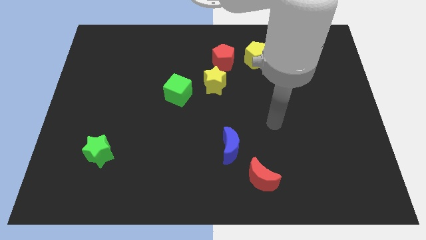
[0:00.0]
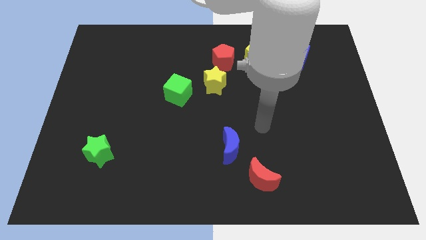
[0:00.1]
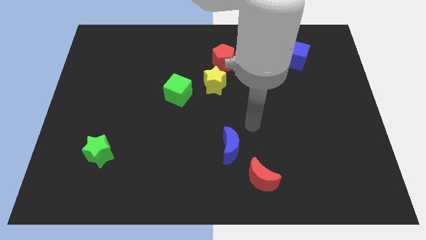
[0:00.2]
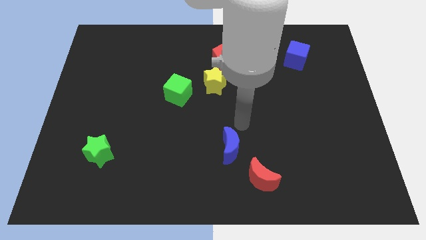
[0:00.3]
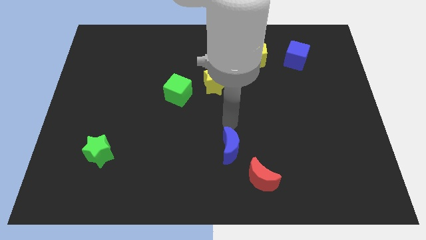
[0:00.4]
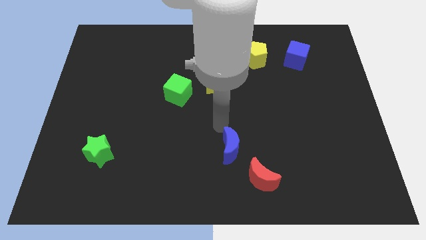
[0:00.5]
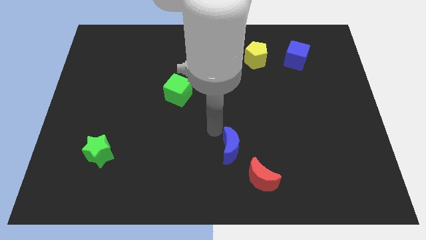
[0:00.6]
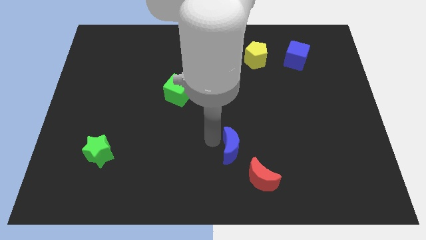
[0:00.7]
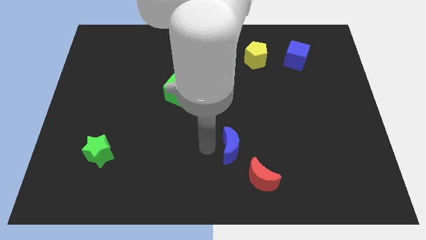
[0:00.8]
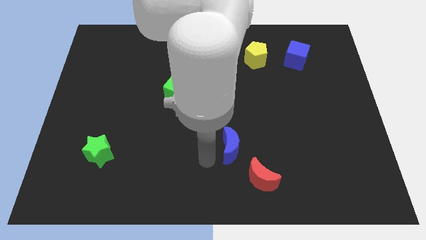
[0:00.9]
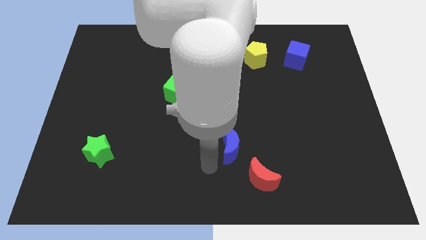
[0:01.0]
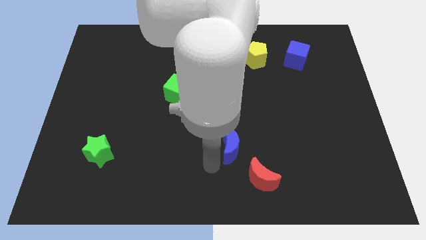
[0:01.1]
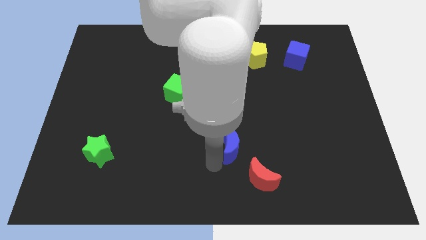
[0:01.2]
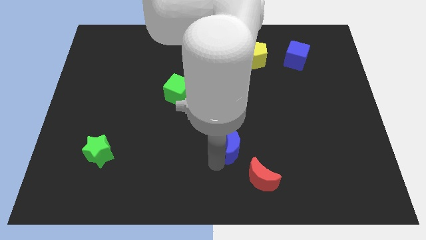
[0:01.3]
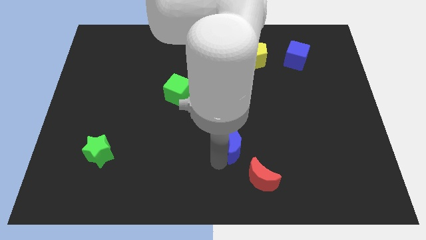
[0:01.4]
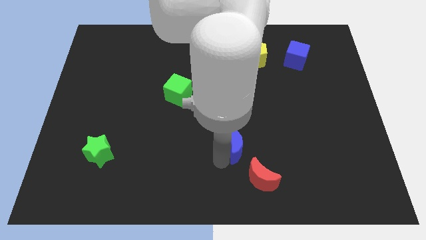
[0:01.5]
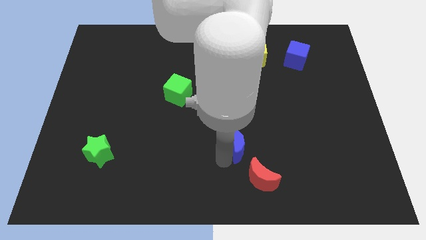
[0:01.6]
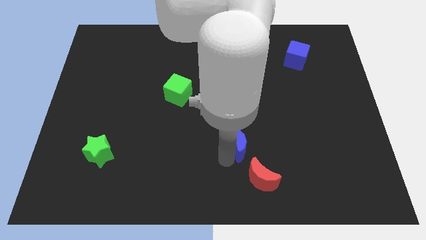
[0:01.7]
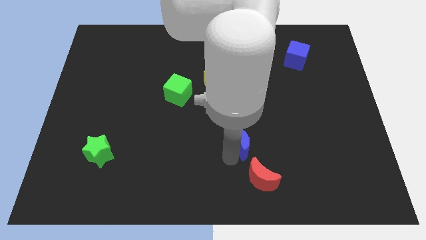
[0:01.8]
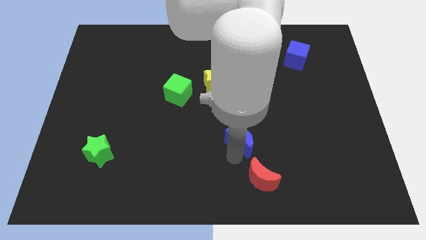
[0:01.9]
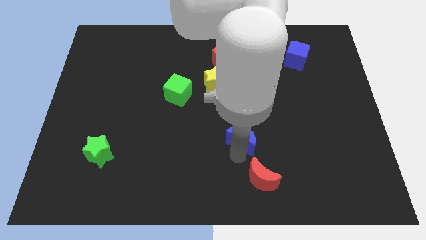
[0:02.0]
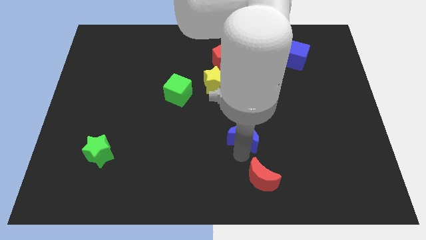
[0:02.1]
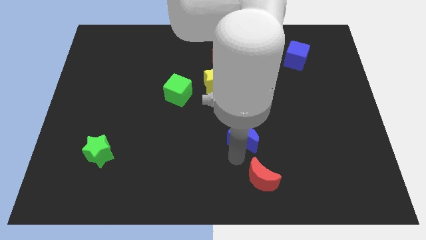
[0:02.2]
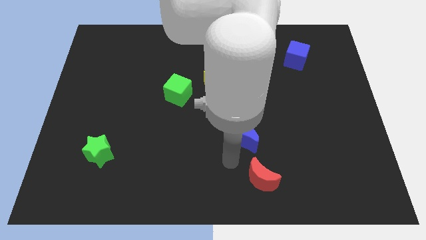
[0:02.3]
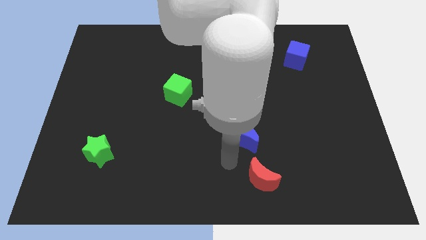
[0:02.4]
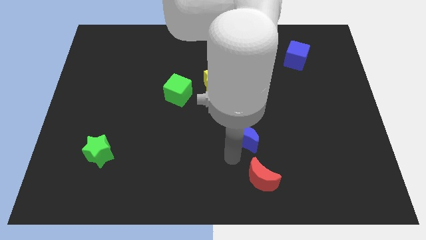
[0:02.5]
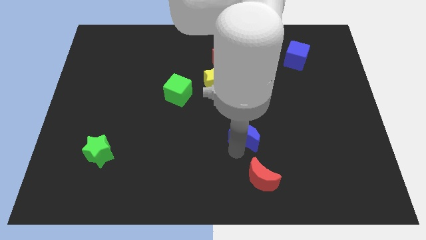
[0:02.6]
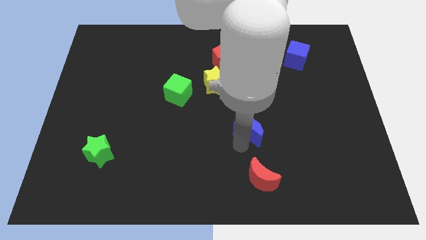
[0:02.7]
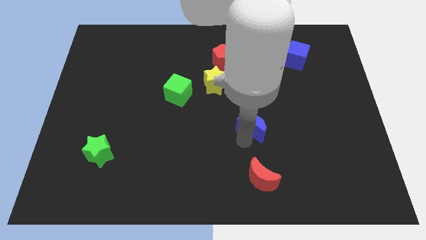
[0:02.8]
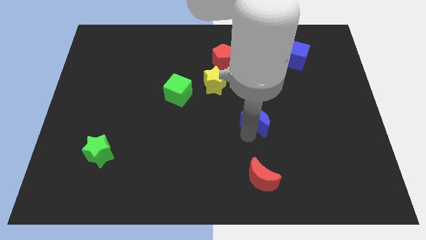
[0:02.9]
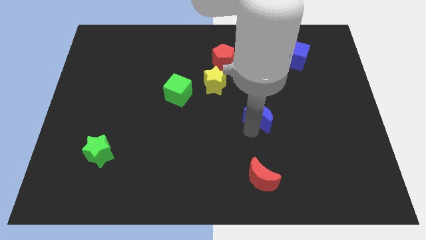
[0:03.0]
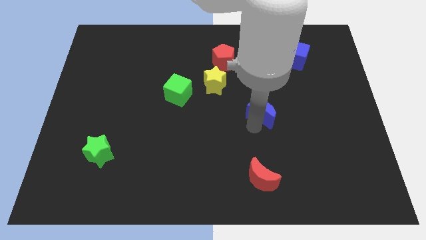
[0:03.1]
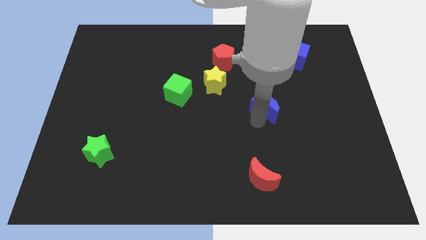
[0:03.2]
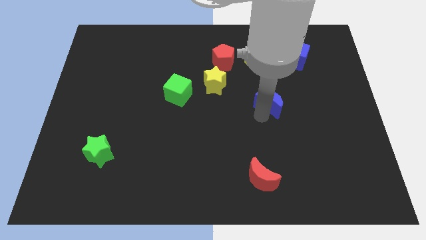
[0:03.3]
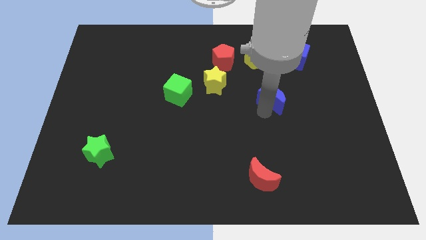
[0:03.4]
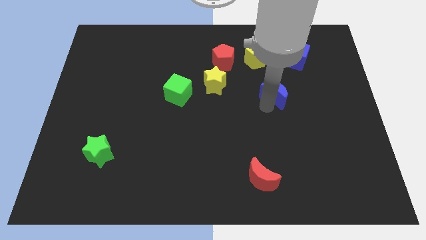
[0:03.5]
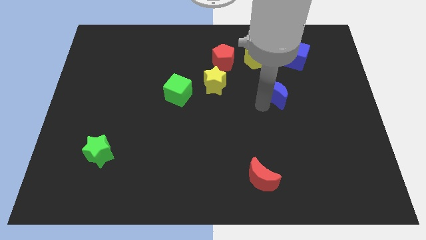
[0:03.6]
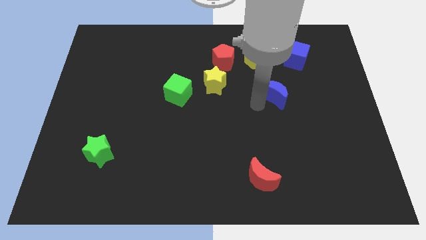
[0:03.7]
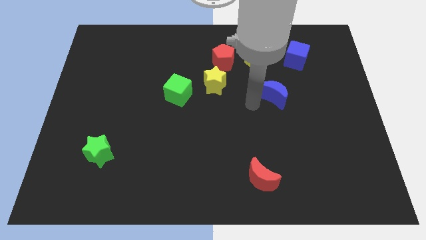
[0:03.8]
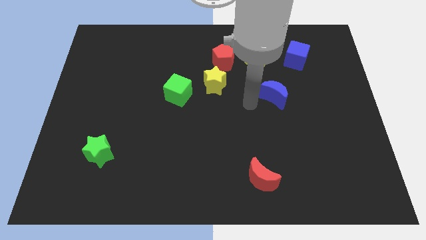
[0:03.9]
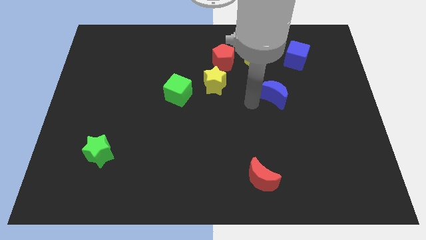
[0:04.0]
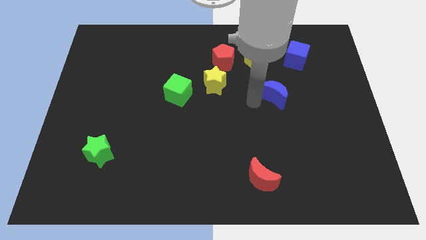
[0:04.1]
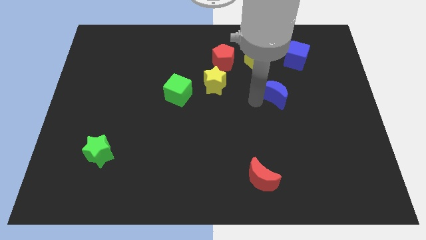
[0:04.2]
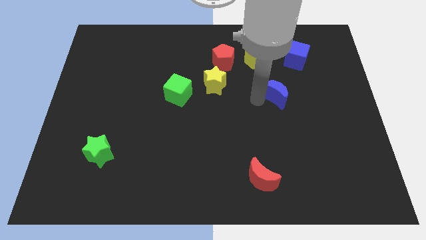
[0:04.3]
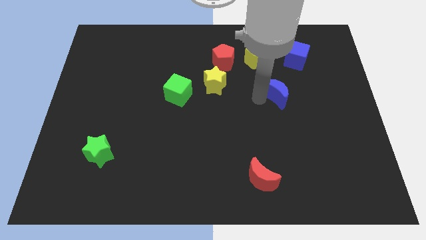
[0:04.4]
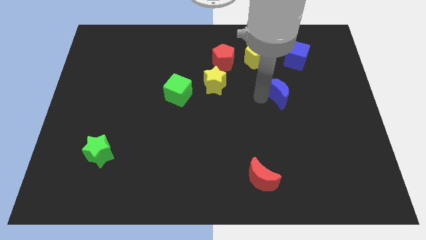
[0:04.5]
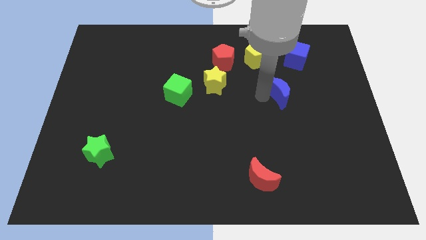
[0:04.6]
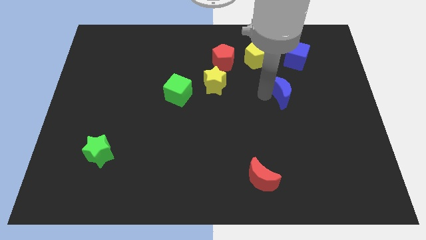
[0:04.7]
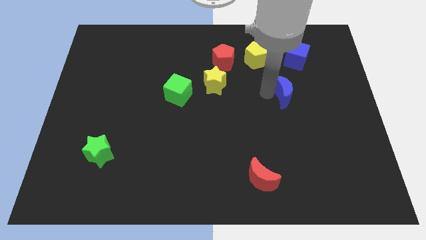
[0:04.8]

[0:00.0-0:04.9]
slide the blue moon upwards and then right

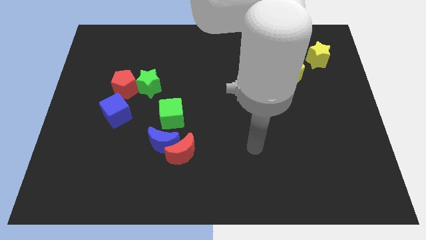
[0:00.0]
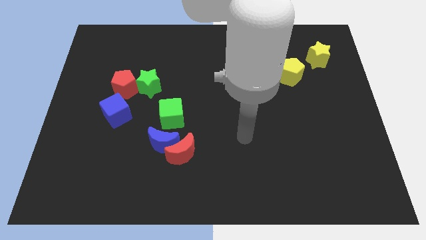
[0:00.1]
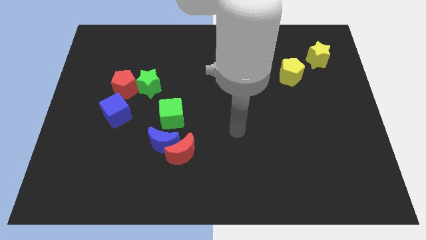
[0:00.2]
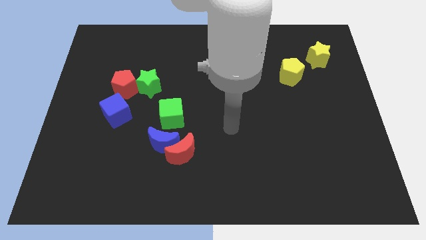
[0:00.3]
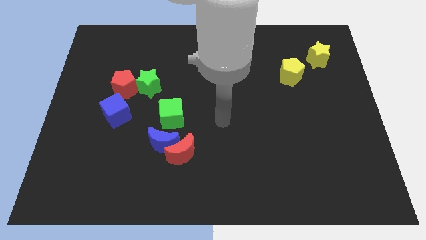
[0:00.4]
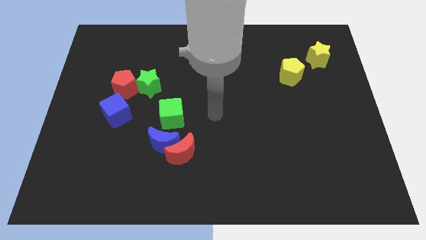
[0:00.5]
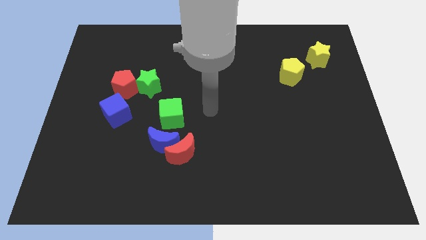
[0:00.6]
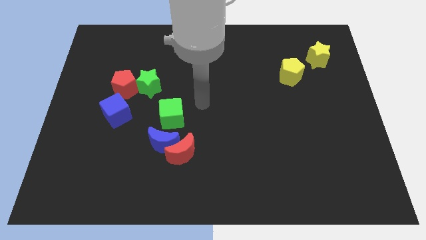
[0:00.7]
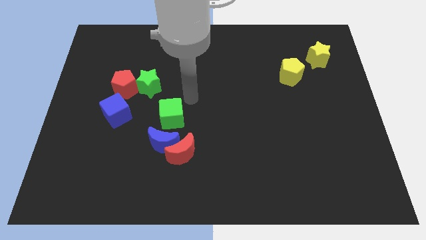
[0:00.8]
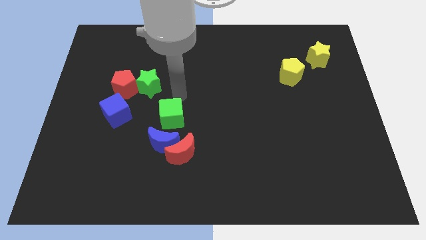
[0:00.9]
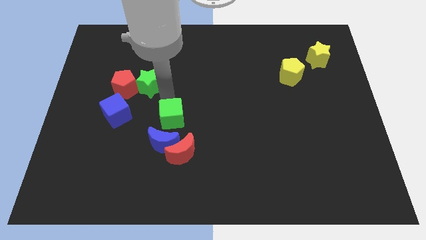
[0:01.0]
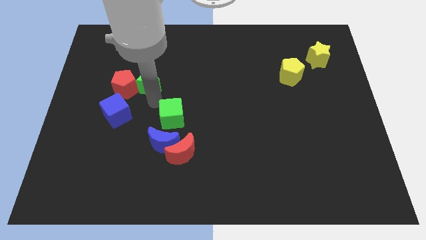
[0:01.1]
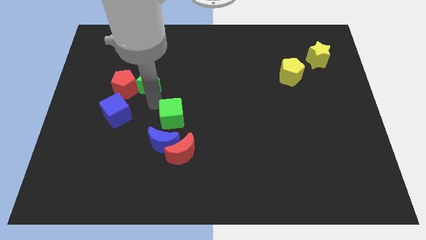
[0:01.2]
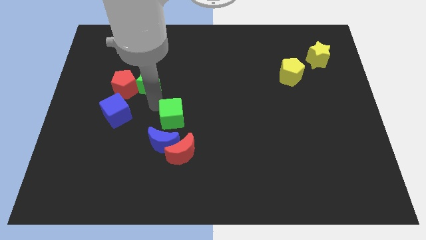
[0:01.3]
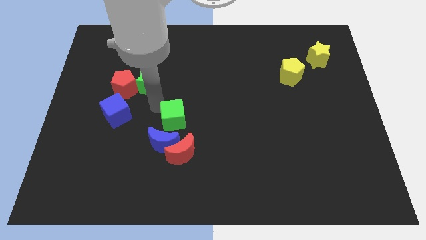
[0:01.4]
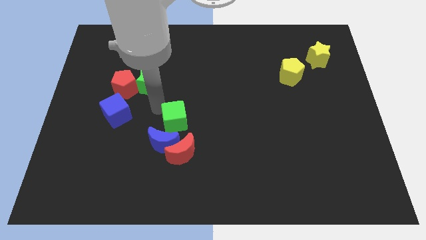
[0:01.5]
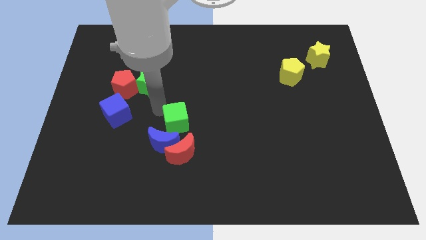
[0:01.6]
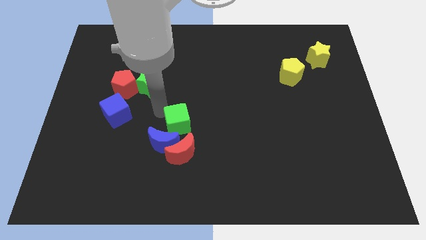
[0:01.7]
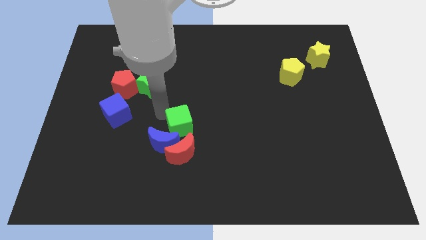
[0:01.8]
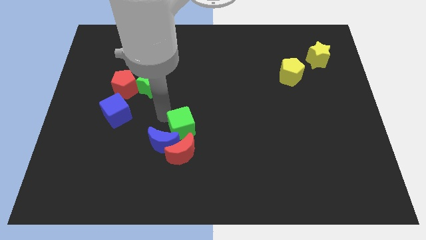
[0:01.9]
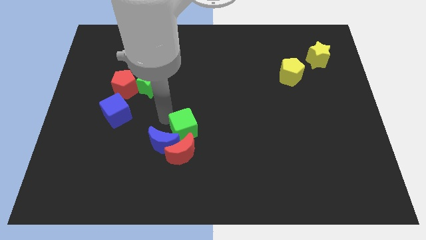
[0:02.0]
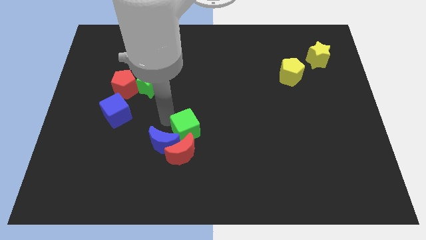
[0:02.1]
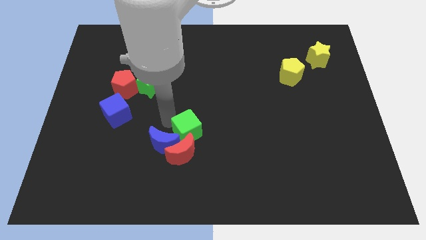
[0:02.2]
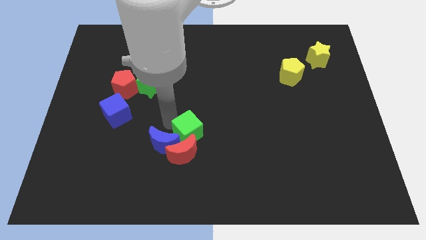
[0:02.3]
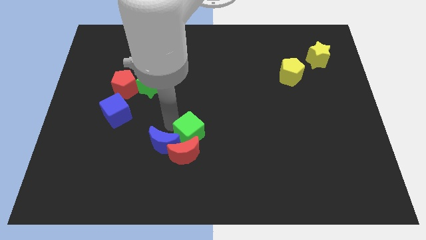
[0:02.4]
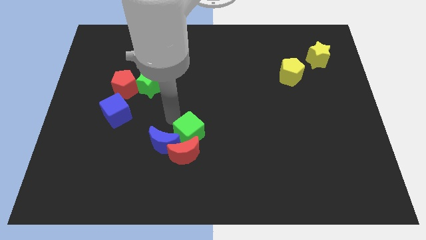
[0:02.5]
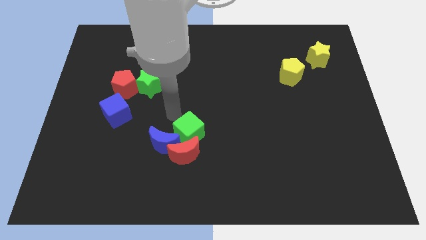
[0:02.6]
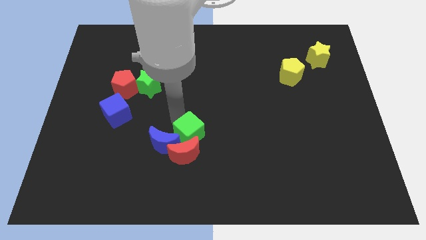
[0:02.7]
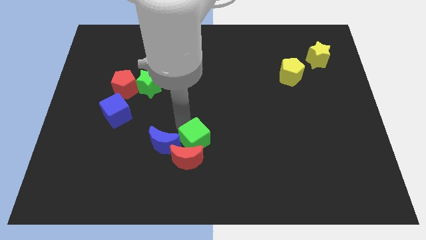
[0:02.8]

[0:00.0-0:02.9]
push the green cube somewhat down and then right
